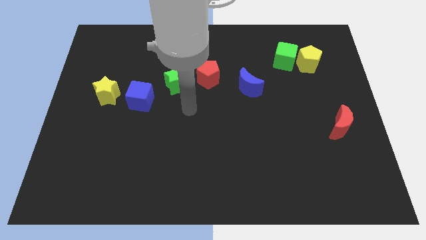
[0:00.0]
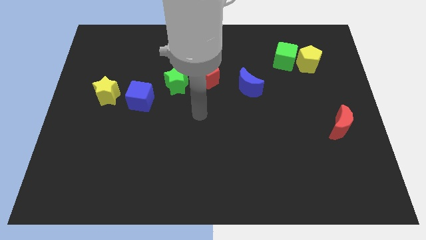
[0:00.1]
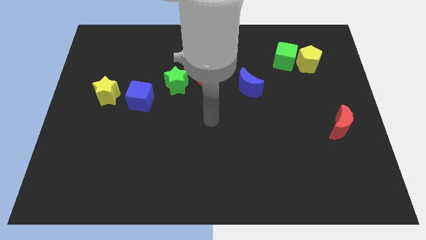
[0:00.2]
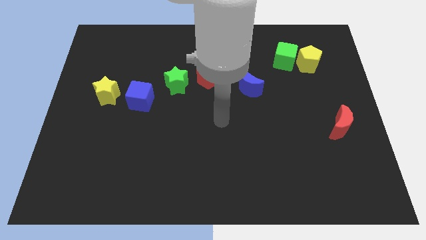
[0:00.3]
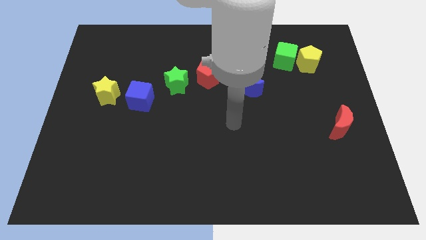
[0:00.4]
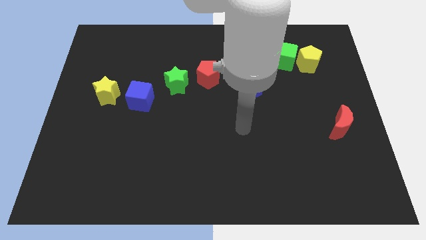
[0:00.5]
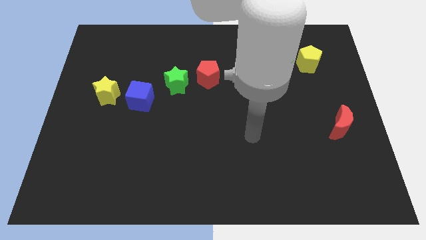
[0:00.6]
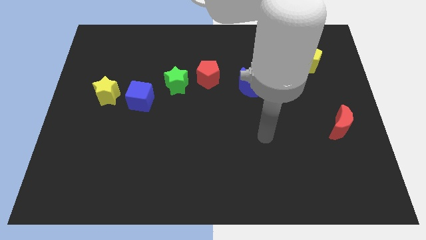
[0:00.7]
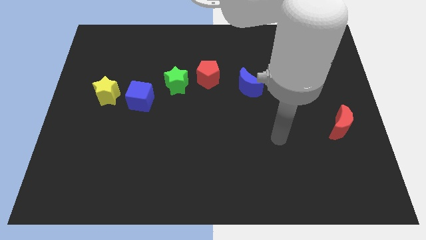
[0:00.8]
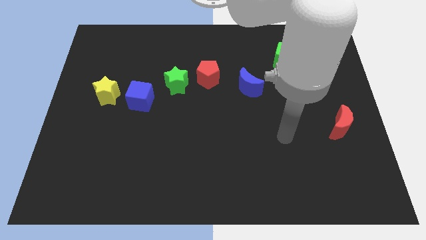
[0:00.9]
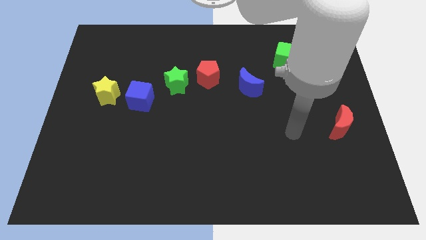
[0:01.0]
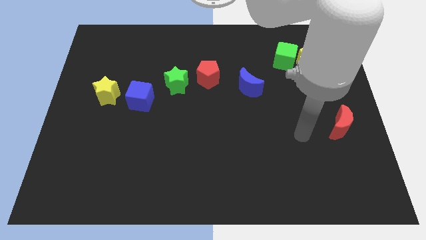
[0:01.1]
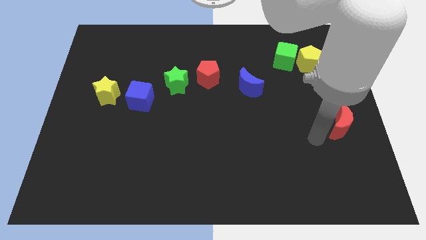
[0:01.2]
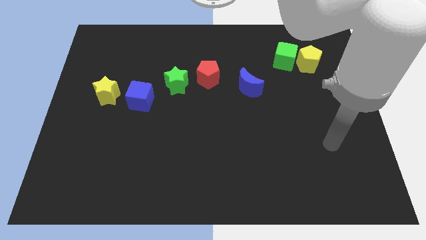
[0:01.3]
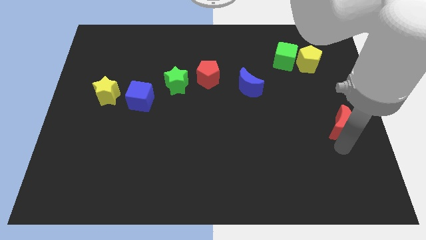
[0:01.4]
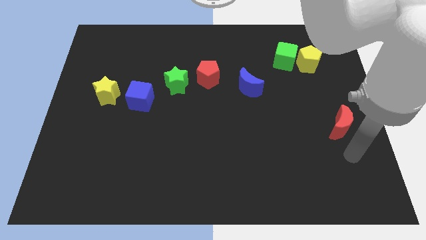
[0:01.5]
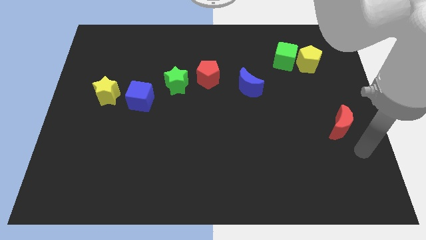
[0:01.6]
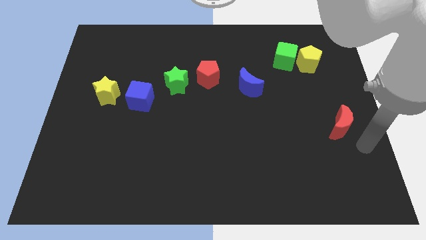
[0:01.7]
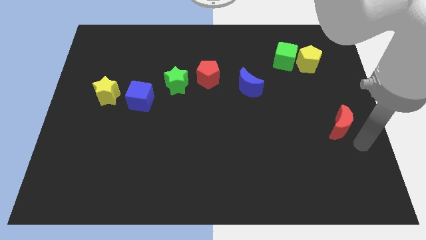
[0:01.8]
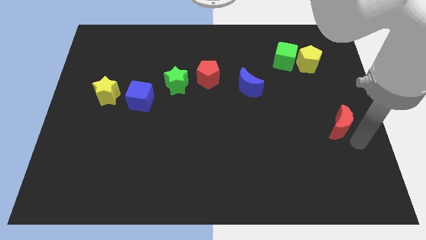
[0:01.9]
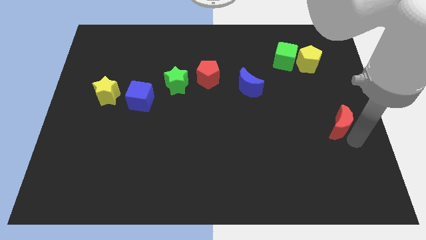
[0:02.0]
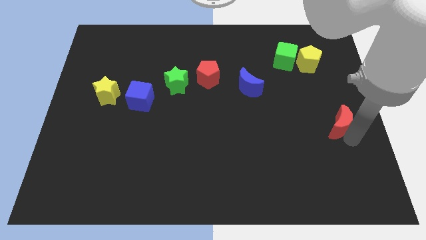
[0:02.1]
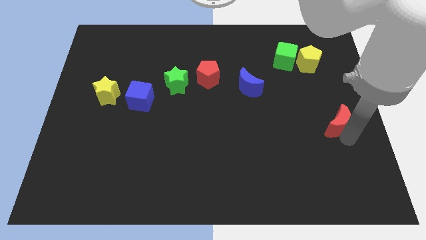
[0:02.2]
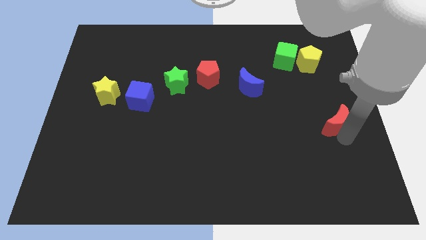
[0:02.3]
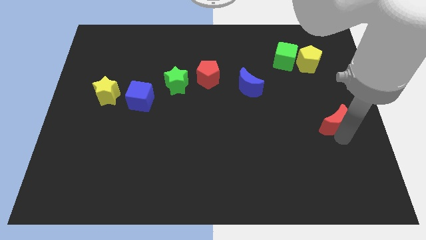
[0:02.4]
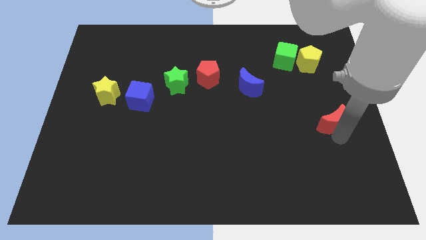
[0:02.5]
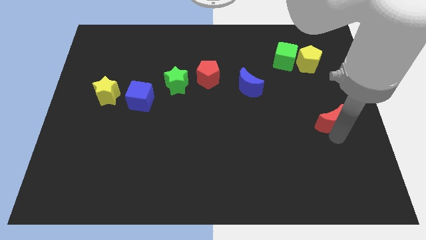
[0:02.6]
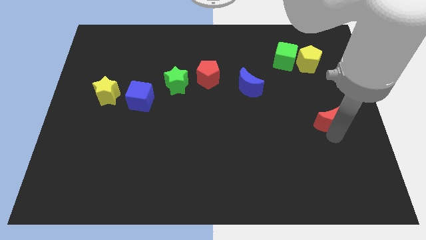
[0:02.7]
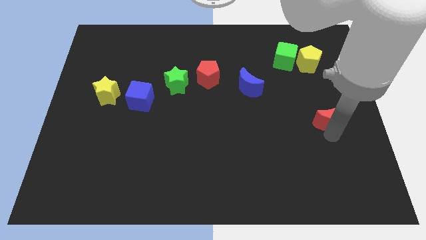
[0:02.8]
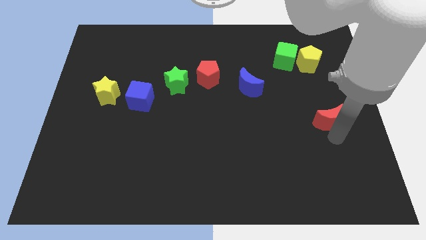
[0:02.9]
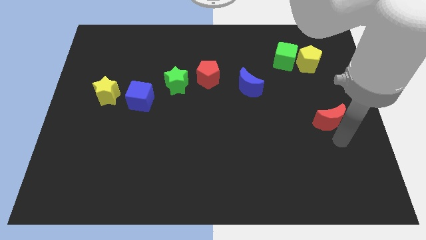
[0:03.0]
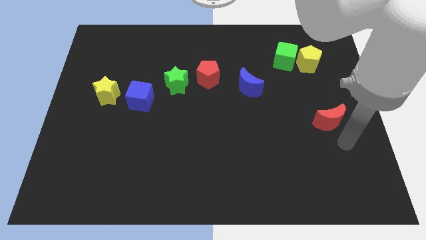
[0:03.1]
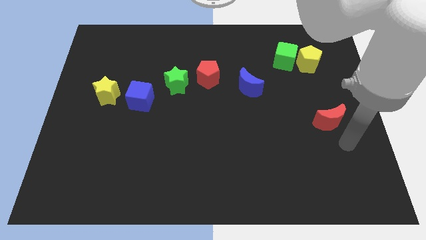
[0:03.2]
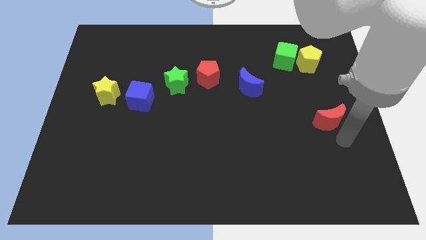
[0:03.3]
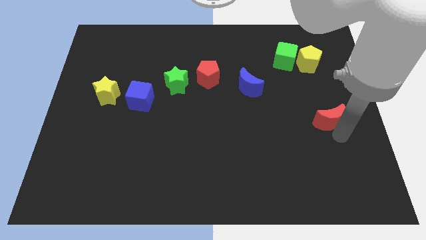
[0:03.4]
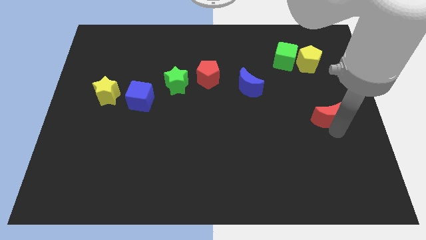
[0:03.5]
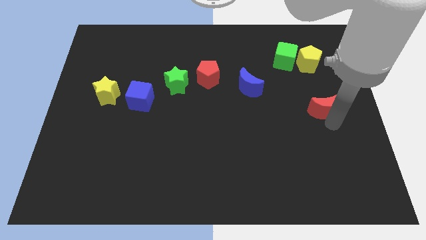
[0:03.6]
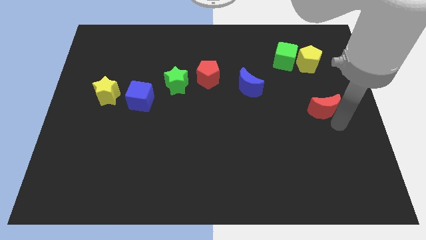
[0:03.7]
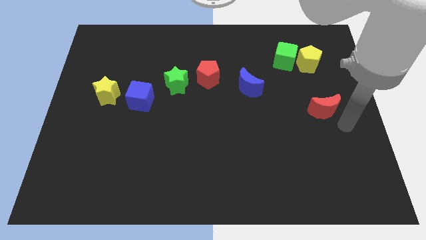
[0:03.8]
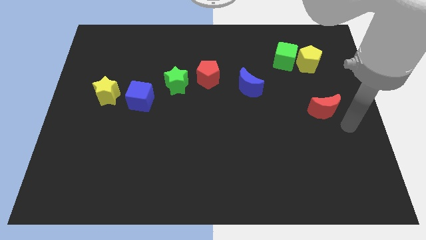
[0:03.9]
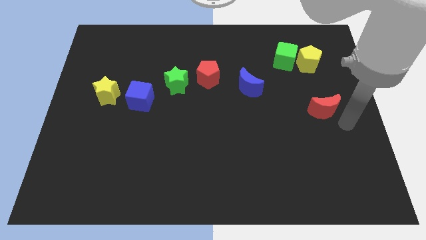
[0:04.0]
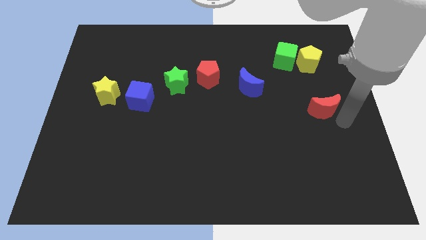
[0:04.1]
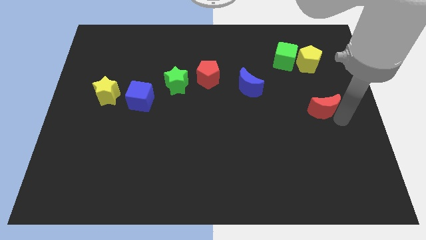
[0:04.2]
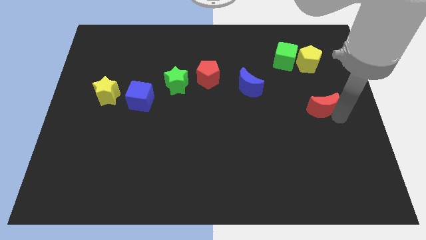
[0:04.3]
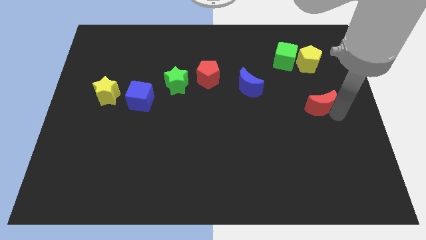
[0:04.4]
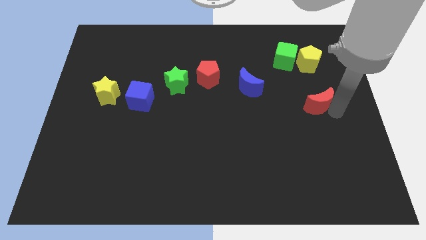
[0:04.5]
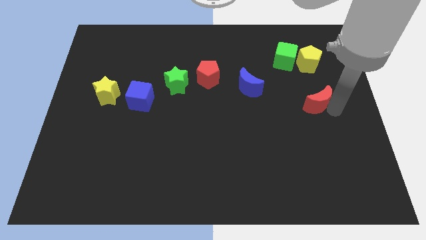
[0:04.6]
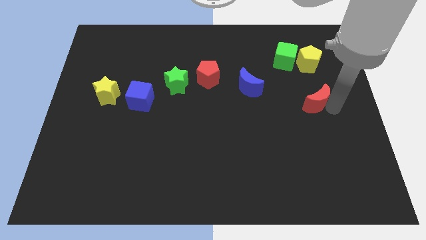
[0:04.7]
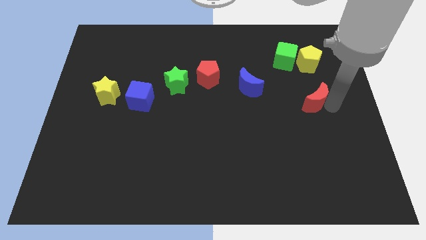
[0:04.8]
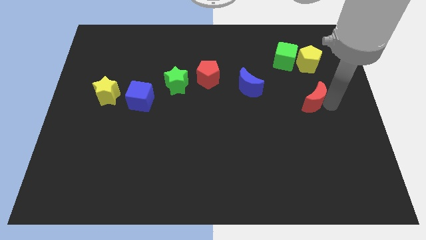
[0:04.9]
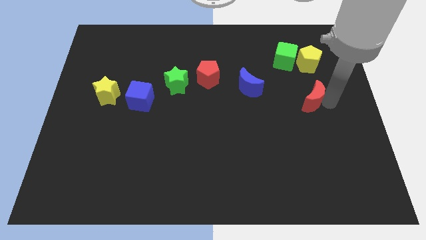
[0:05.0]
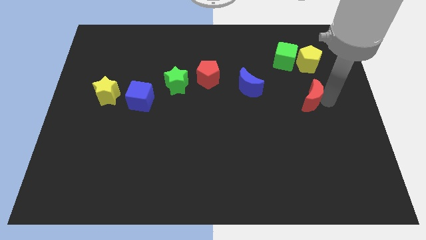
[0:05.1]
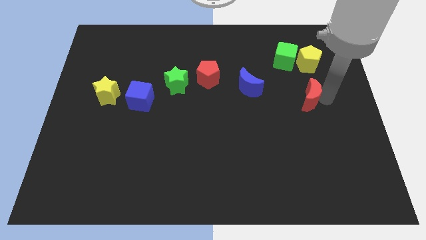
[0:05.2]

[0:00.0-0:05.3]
move the red moon right of the blue moon

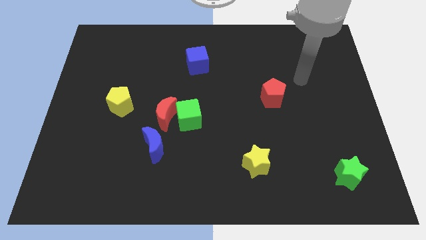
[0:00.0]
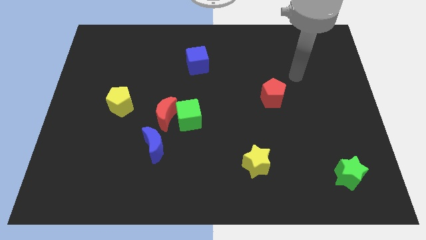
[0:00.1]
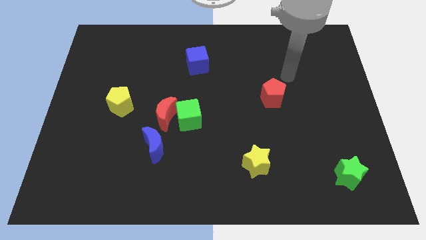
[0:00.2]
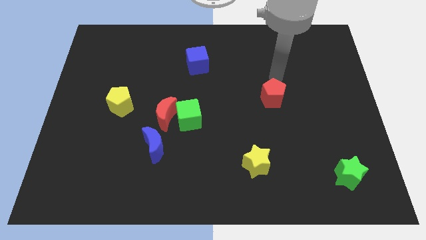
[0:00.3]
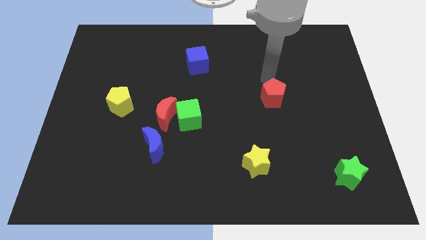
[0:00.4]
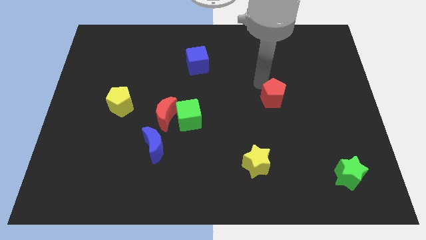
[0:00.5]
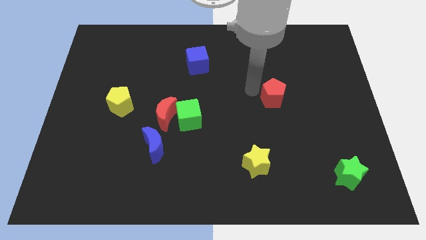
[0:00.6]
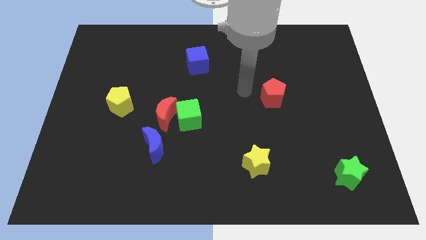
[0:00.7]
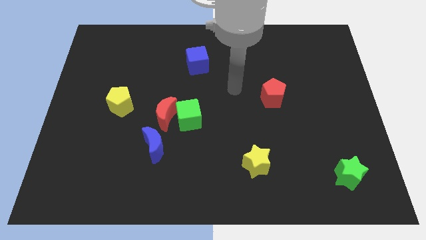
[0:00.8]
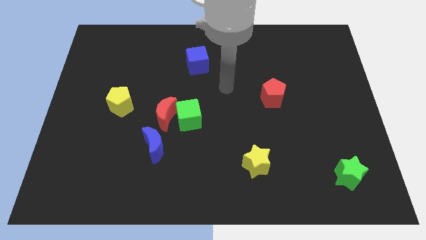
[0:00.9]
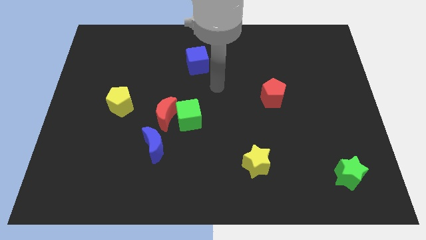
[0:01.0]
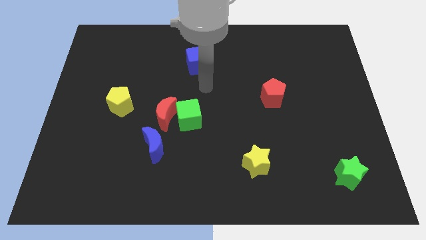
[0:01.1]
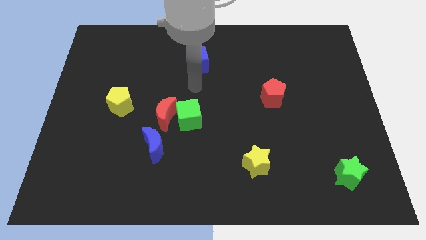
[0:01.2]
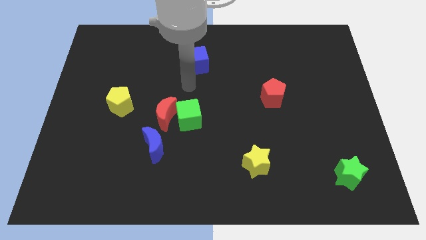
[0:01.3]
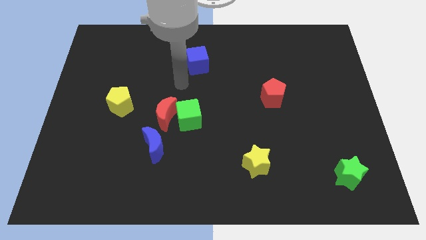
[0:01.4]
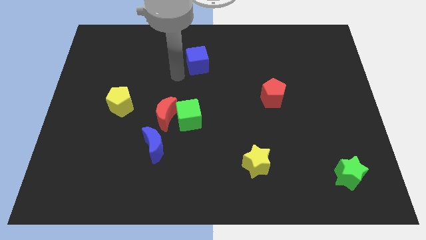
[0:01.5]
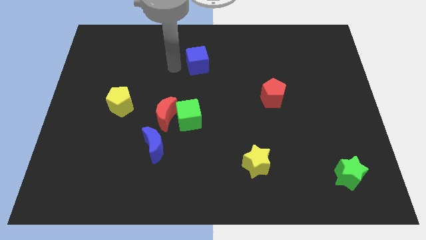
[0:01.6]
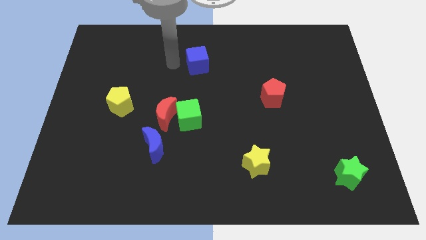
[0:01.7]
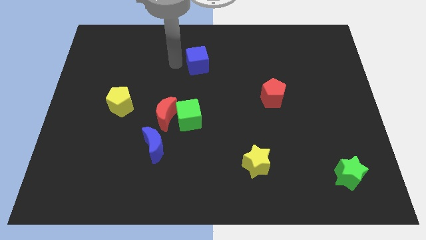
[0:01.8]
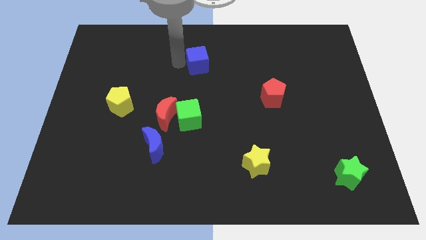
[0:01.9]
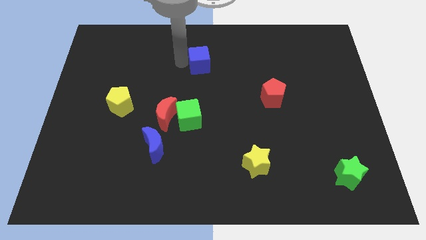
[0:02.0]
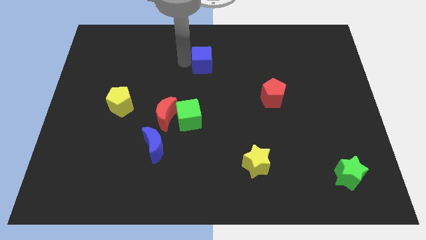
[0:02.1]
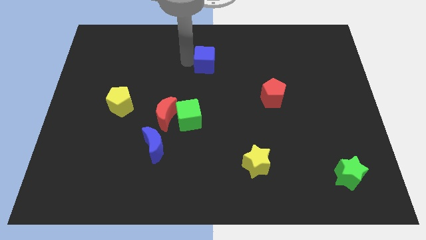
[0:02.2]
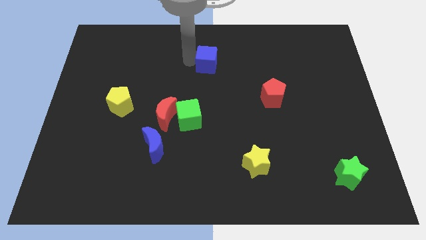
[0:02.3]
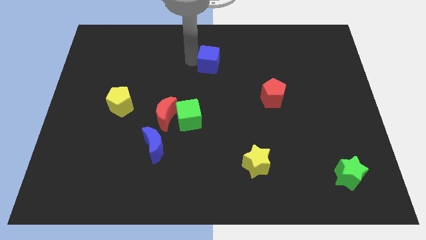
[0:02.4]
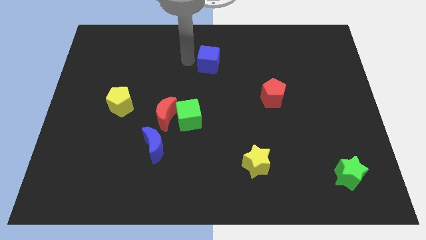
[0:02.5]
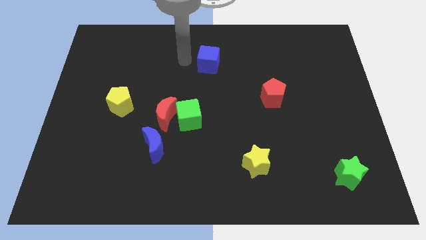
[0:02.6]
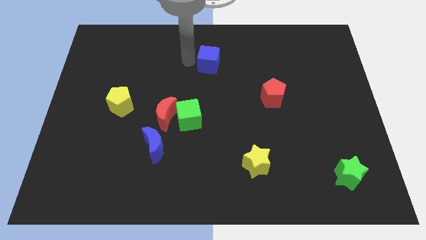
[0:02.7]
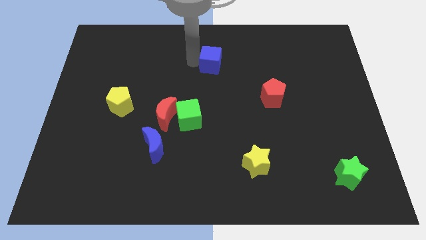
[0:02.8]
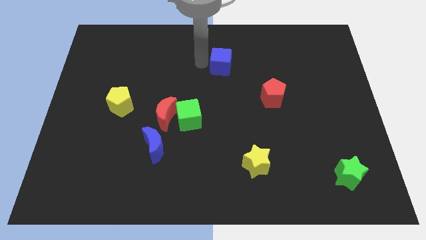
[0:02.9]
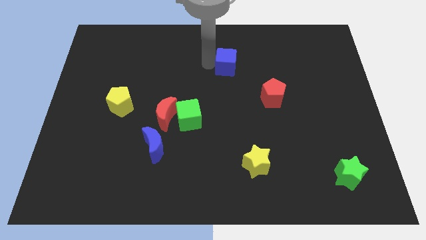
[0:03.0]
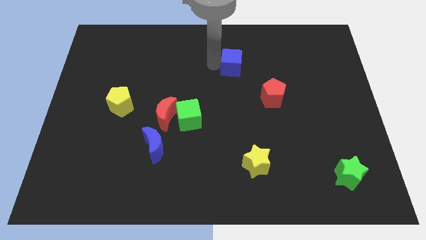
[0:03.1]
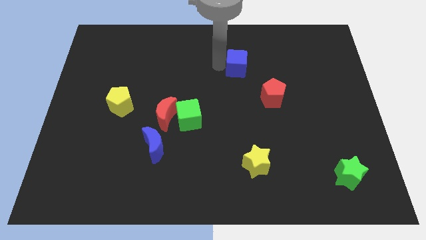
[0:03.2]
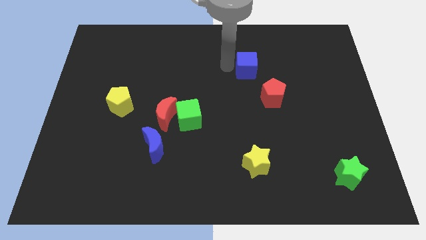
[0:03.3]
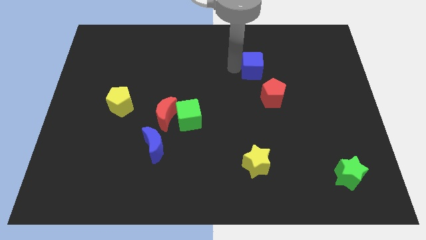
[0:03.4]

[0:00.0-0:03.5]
push the blue cube to the top of the red pentagon
